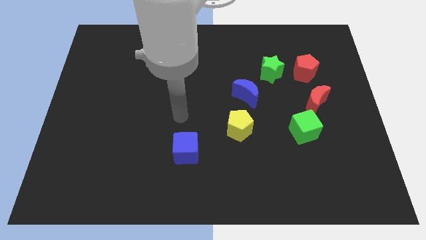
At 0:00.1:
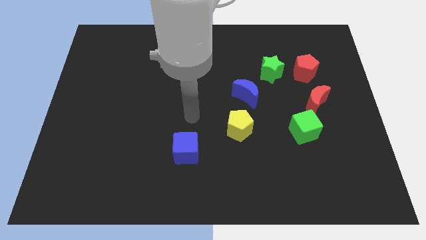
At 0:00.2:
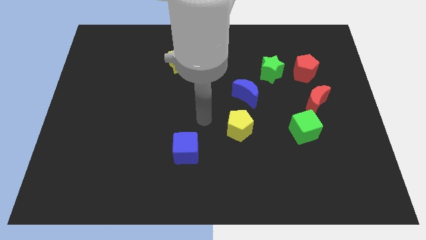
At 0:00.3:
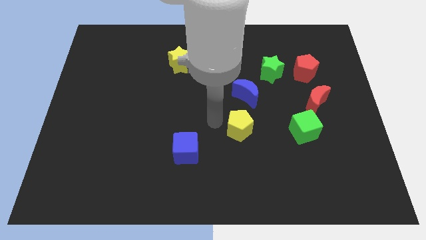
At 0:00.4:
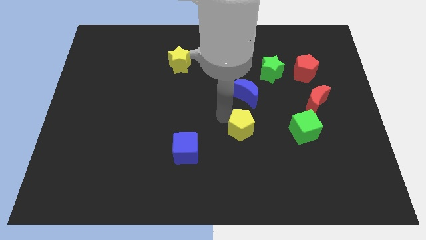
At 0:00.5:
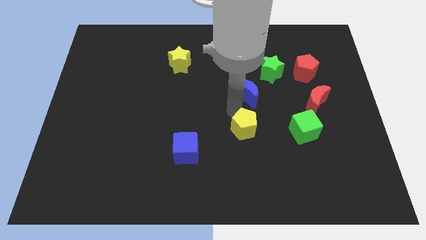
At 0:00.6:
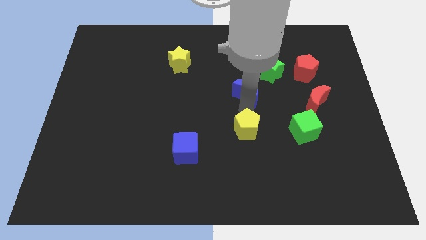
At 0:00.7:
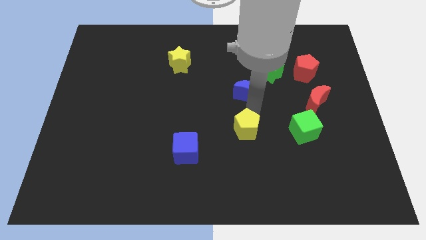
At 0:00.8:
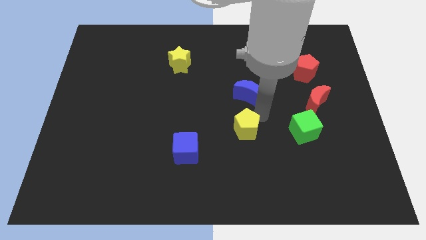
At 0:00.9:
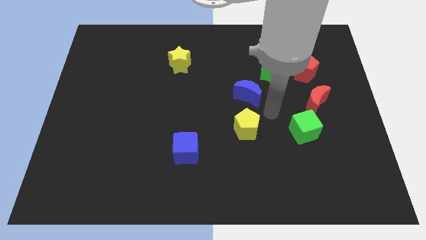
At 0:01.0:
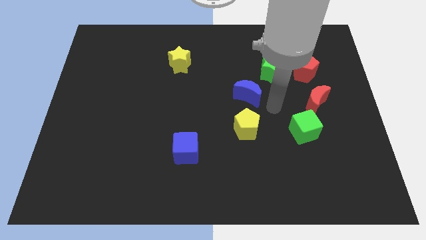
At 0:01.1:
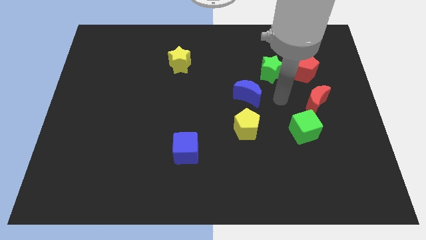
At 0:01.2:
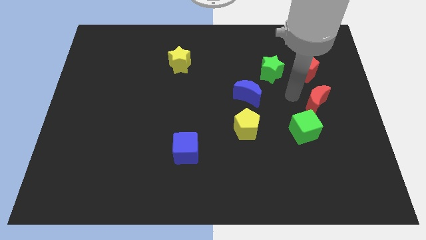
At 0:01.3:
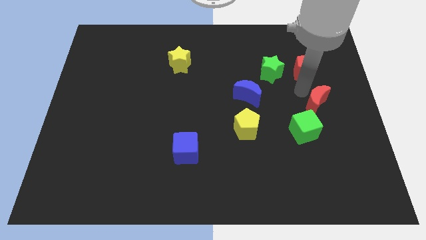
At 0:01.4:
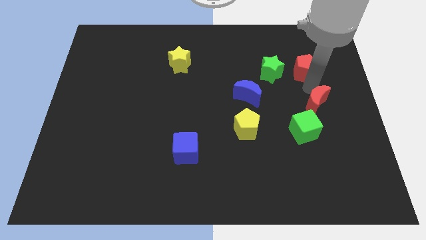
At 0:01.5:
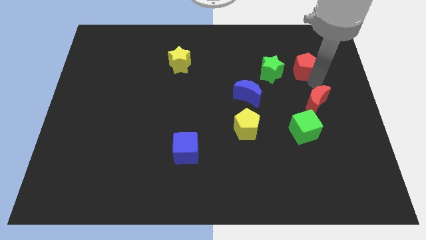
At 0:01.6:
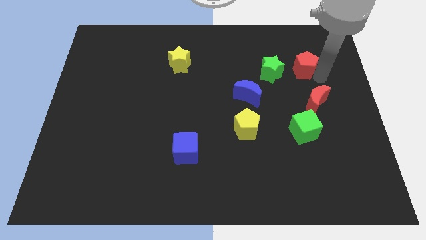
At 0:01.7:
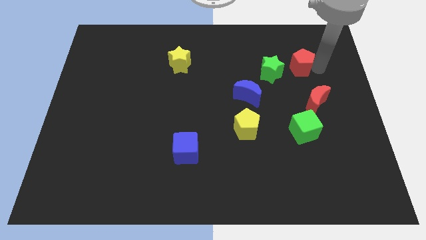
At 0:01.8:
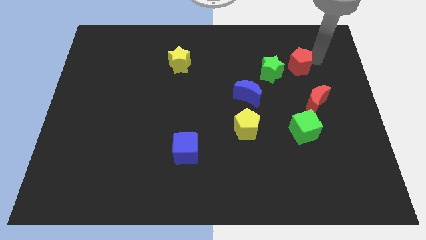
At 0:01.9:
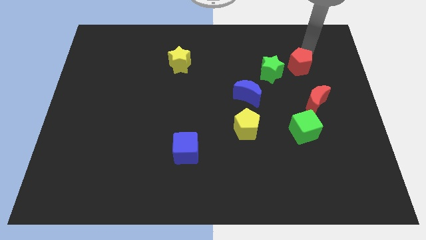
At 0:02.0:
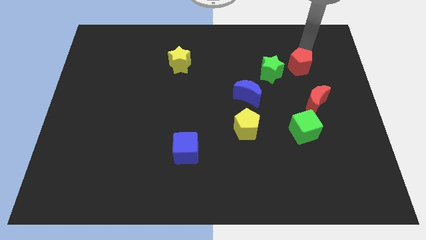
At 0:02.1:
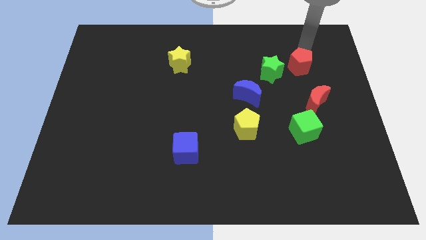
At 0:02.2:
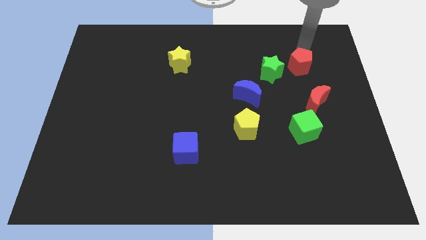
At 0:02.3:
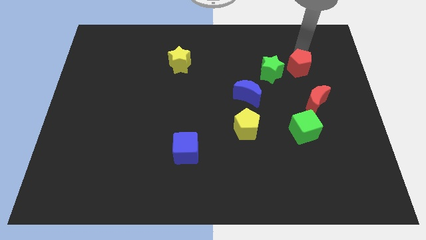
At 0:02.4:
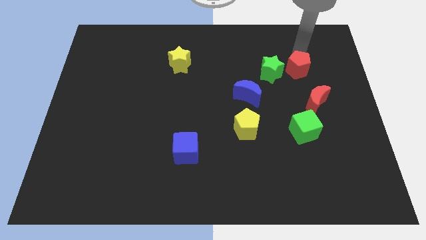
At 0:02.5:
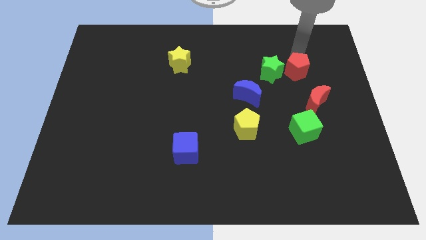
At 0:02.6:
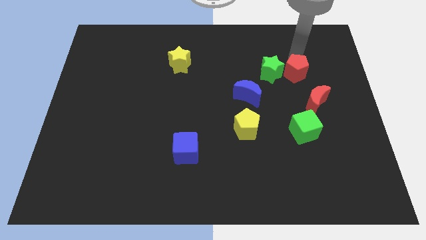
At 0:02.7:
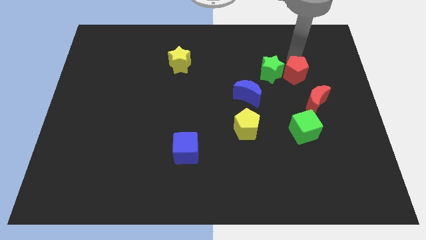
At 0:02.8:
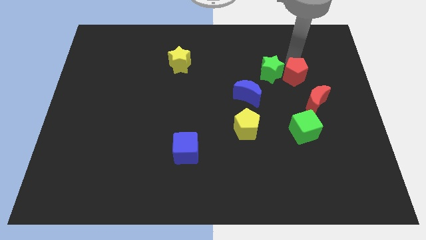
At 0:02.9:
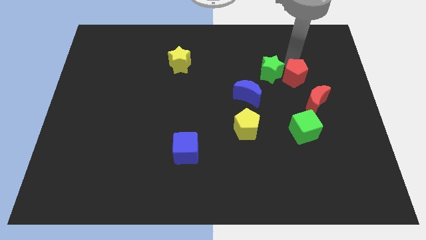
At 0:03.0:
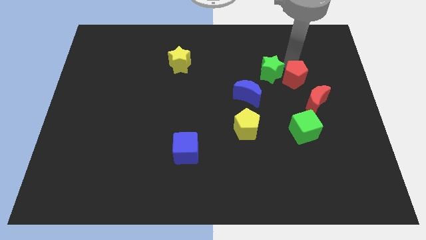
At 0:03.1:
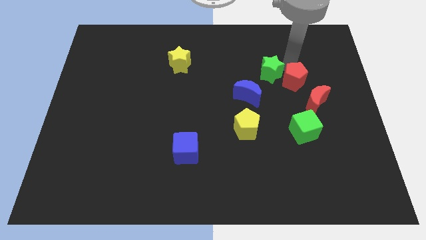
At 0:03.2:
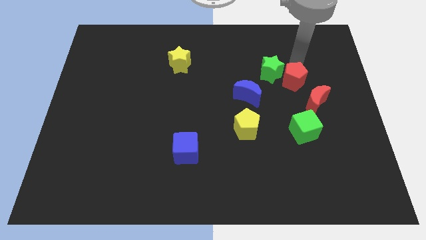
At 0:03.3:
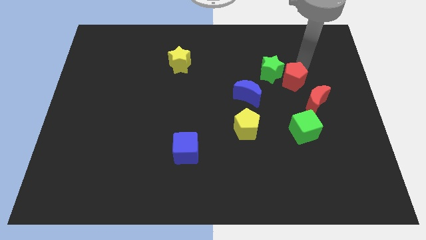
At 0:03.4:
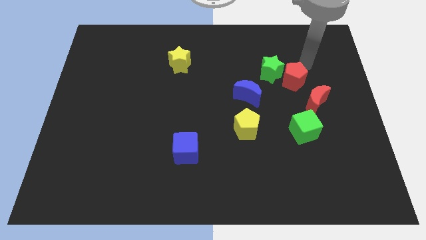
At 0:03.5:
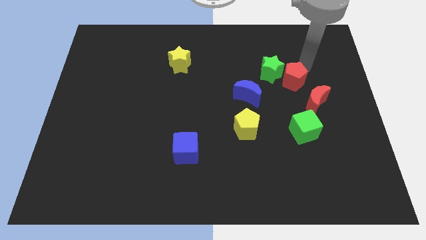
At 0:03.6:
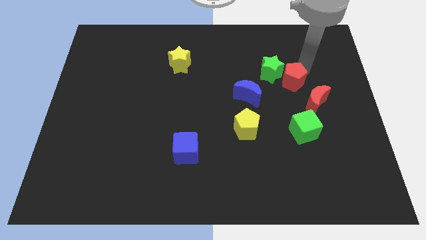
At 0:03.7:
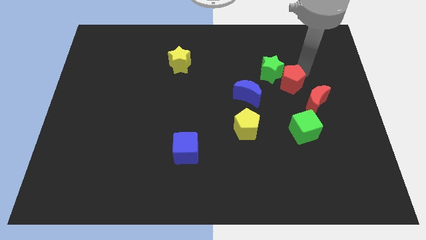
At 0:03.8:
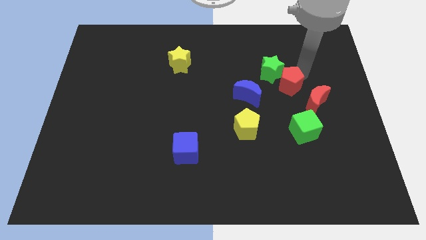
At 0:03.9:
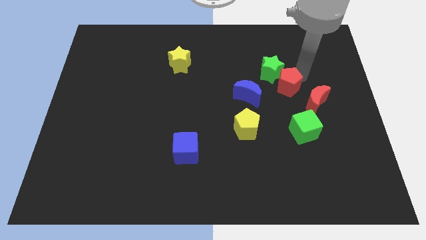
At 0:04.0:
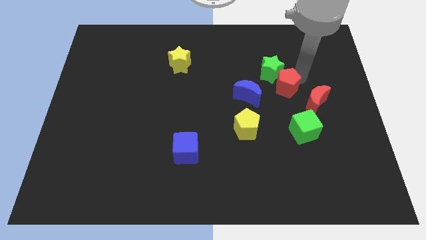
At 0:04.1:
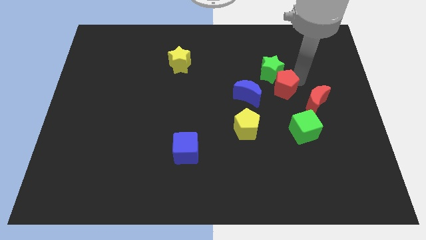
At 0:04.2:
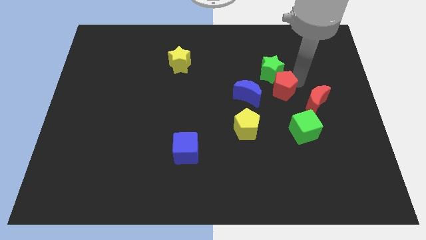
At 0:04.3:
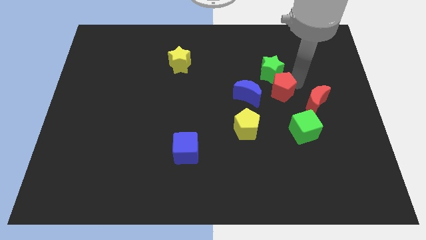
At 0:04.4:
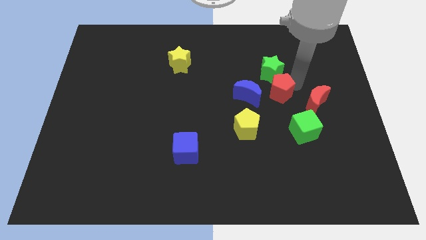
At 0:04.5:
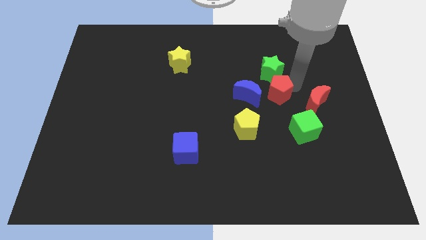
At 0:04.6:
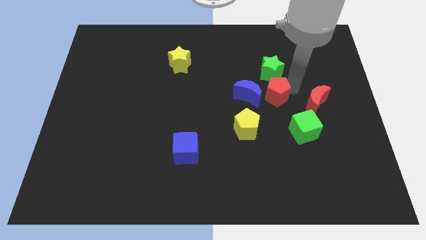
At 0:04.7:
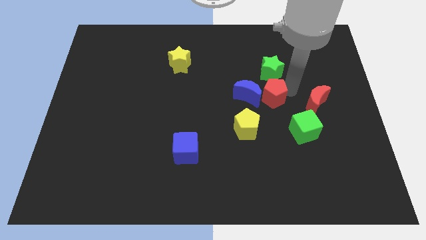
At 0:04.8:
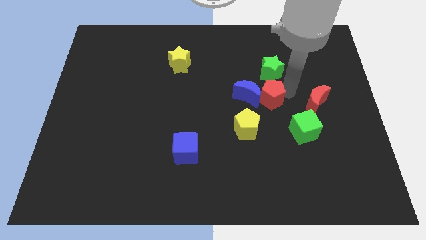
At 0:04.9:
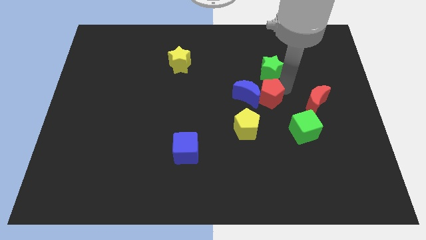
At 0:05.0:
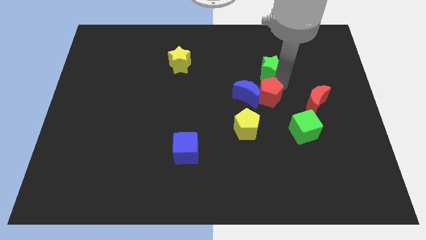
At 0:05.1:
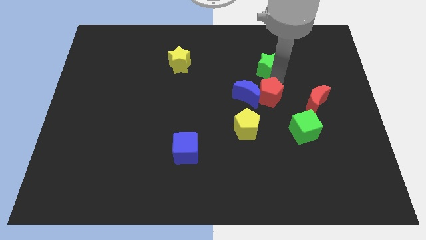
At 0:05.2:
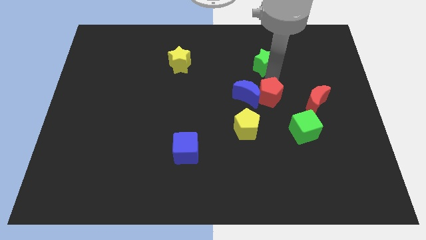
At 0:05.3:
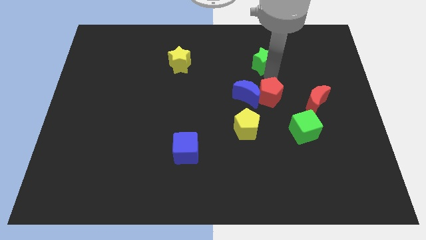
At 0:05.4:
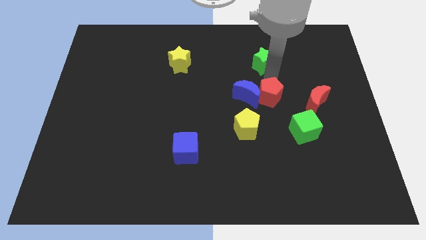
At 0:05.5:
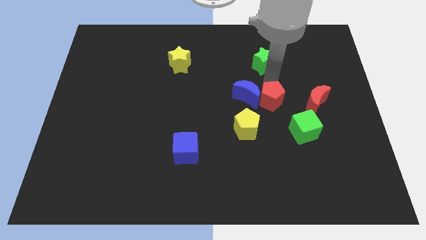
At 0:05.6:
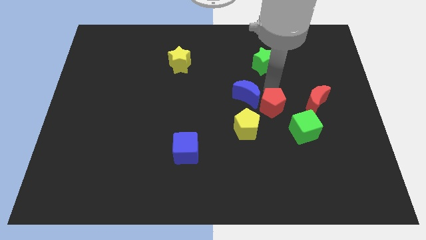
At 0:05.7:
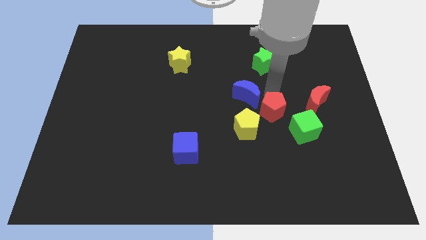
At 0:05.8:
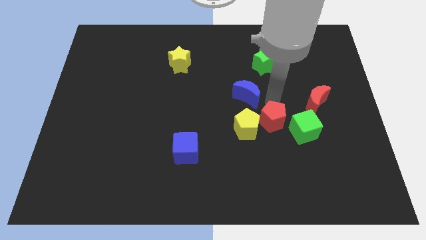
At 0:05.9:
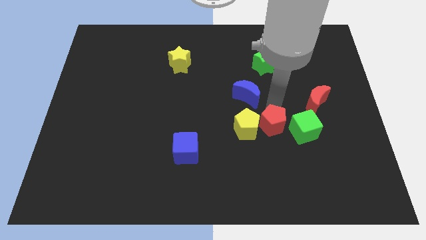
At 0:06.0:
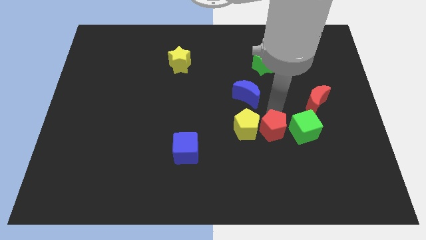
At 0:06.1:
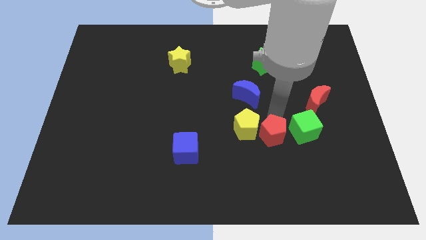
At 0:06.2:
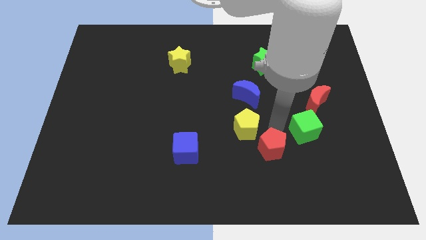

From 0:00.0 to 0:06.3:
push the red pentagon down and to the left diagonally

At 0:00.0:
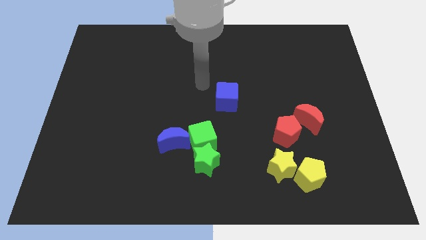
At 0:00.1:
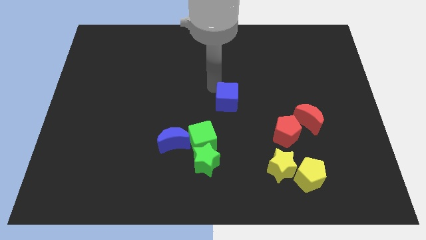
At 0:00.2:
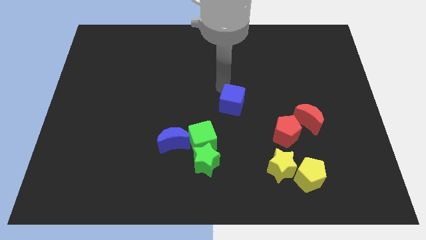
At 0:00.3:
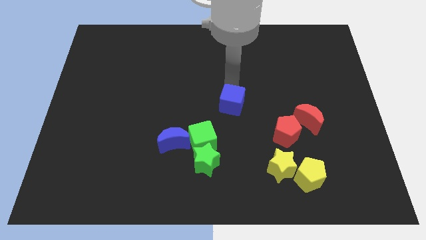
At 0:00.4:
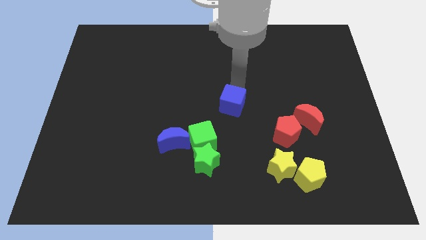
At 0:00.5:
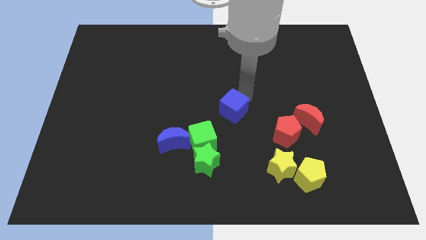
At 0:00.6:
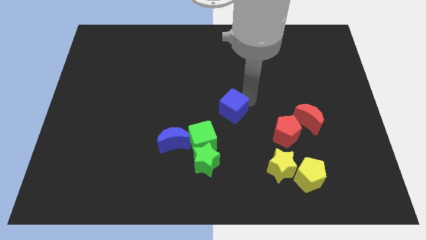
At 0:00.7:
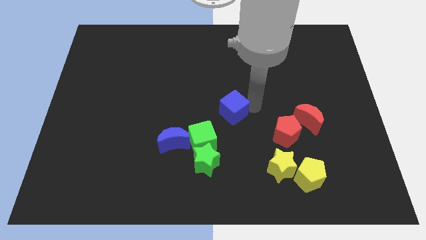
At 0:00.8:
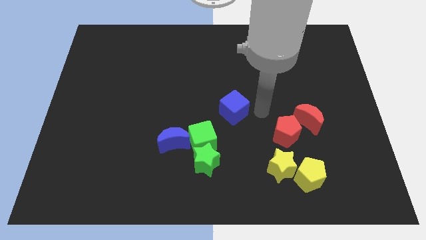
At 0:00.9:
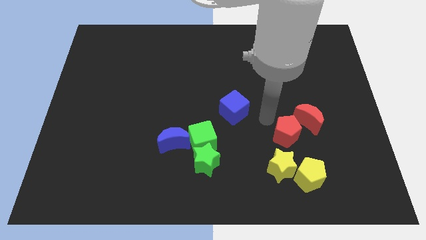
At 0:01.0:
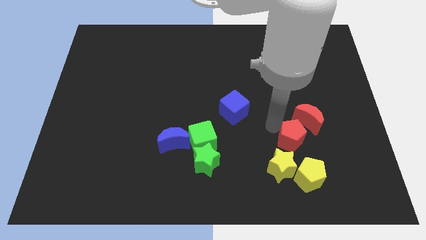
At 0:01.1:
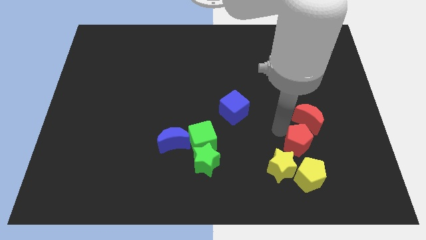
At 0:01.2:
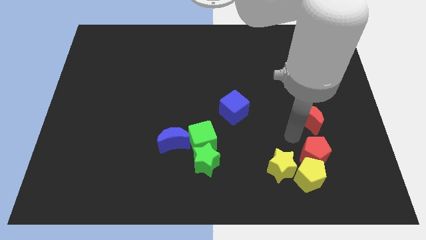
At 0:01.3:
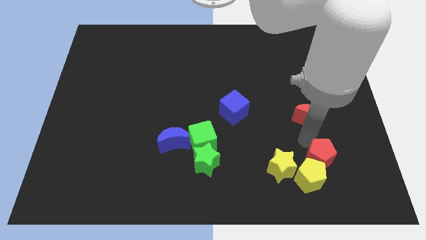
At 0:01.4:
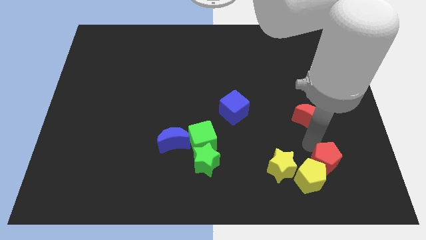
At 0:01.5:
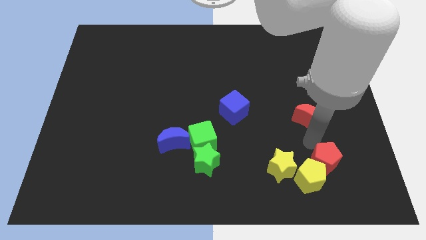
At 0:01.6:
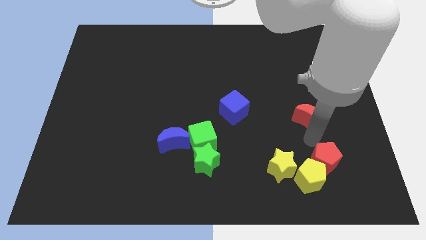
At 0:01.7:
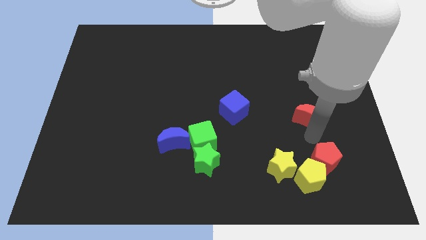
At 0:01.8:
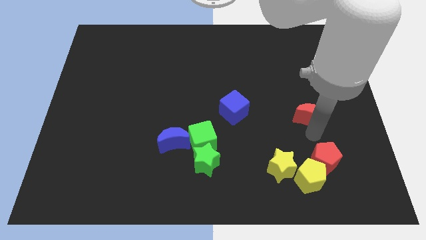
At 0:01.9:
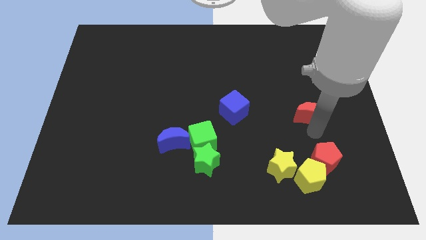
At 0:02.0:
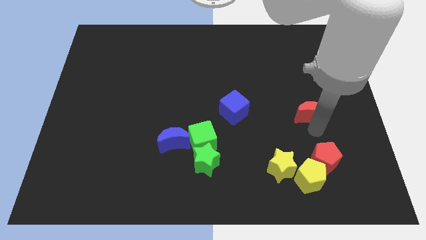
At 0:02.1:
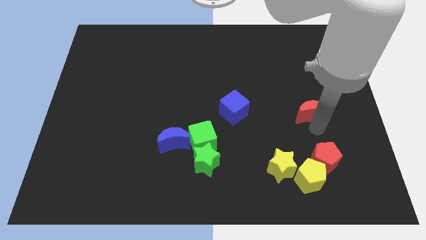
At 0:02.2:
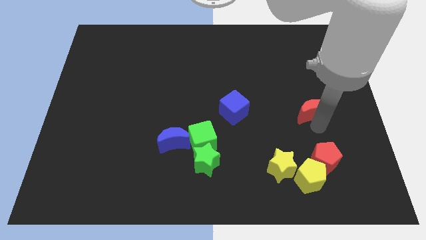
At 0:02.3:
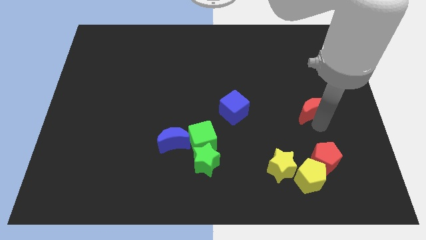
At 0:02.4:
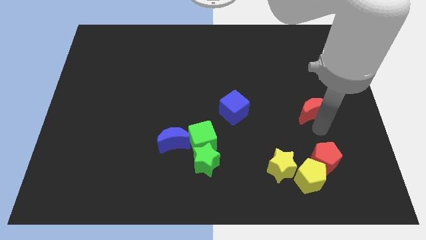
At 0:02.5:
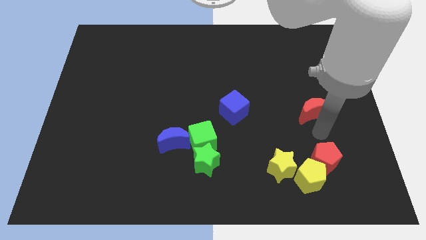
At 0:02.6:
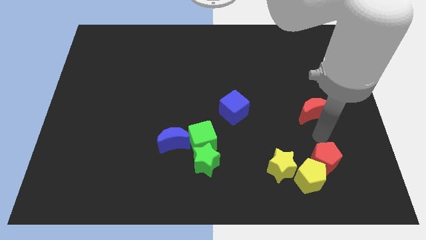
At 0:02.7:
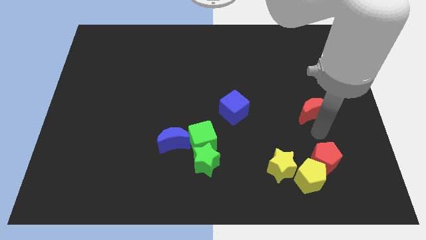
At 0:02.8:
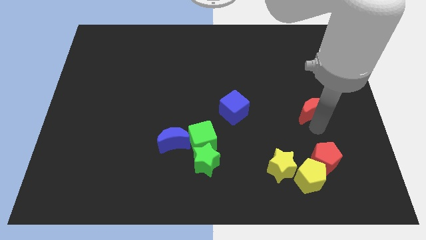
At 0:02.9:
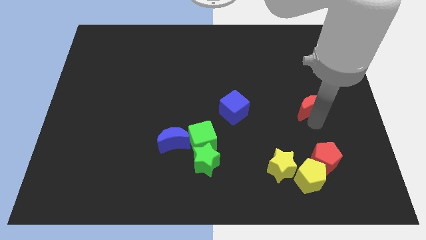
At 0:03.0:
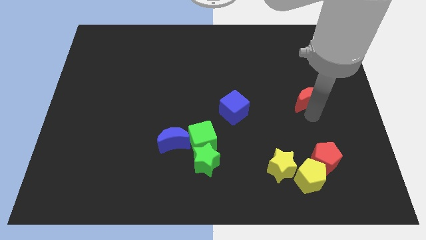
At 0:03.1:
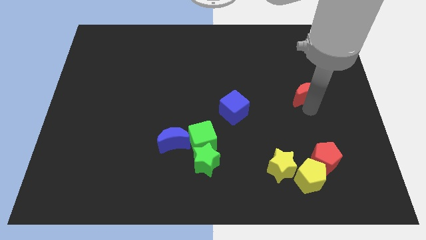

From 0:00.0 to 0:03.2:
move the red moon slightly upwards
